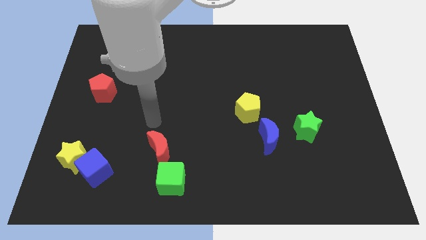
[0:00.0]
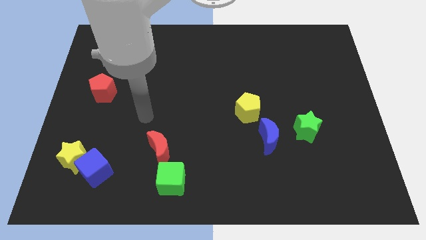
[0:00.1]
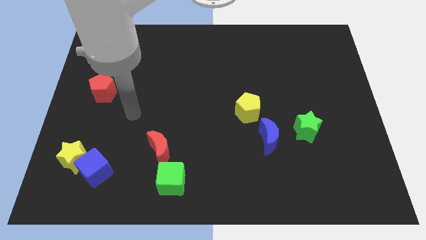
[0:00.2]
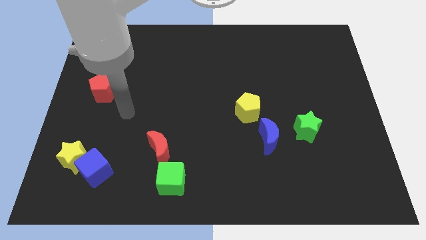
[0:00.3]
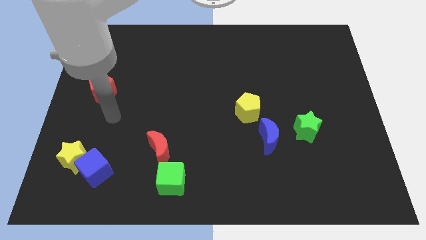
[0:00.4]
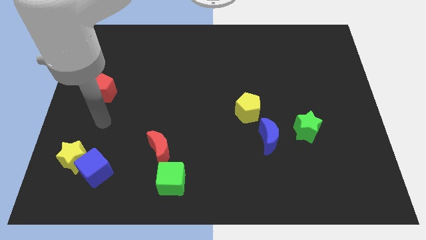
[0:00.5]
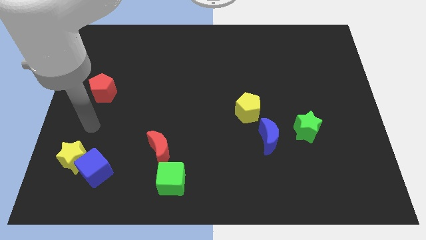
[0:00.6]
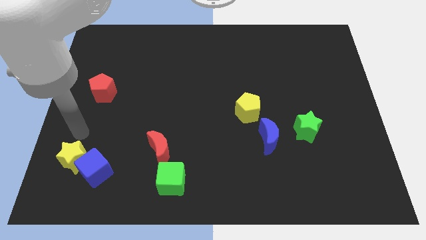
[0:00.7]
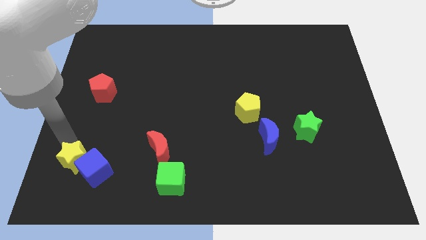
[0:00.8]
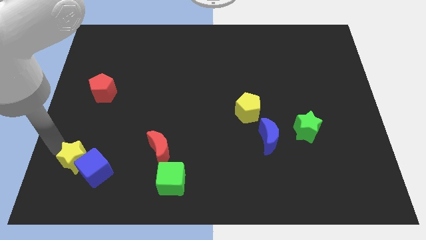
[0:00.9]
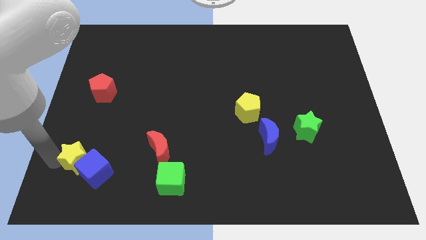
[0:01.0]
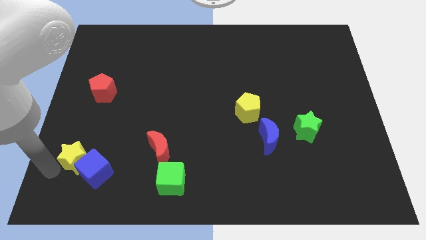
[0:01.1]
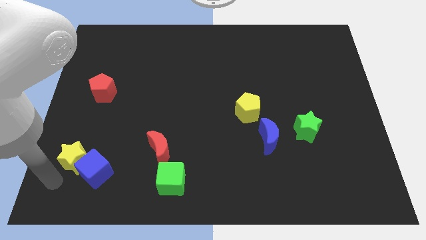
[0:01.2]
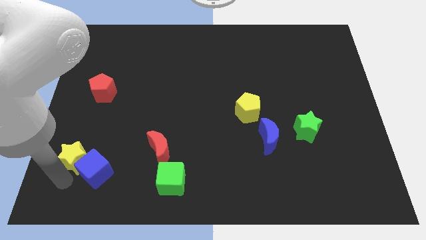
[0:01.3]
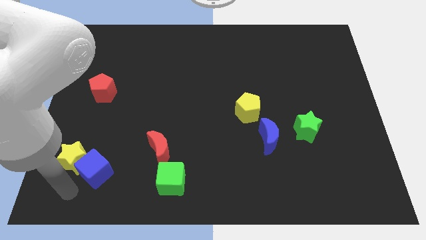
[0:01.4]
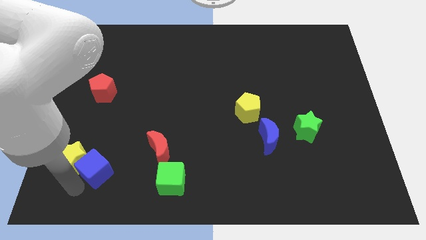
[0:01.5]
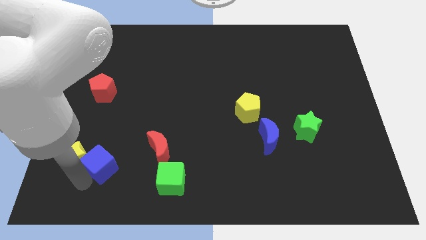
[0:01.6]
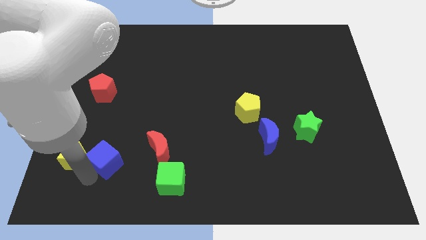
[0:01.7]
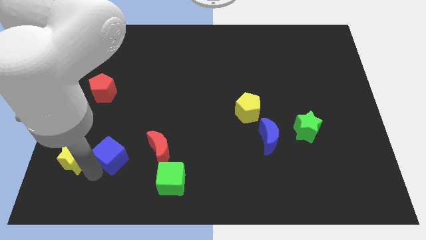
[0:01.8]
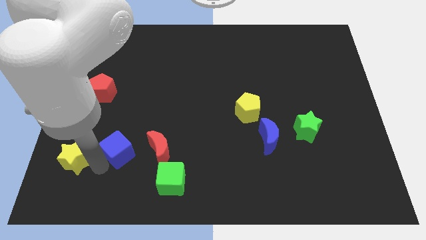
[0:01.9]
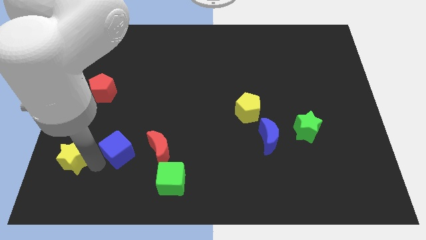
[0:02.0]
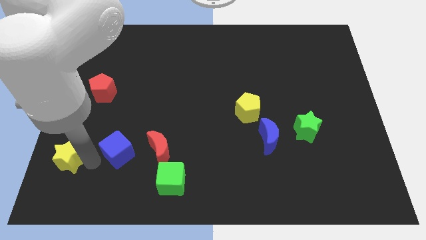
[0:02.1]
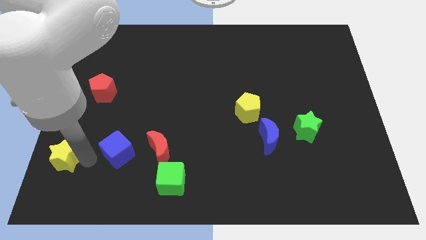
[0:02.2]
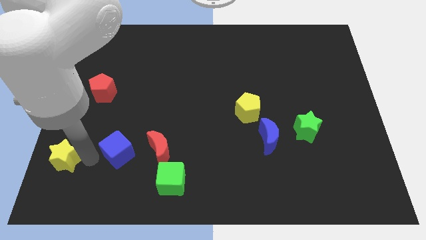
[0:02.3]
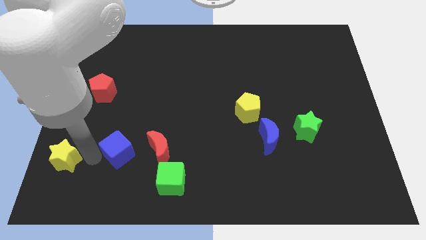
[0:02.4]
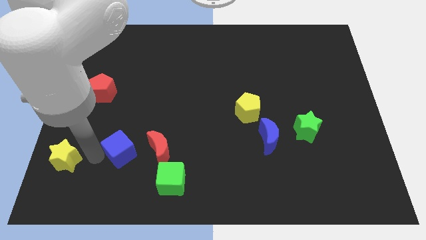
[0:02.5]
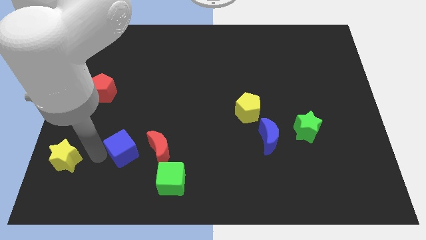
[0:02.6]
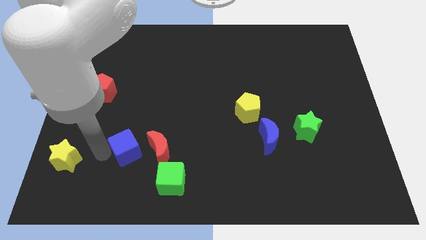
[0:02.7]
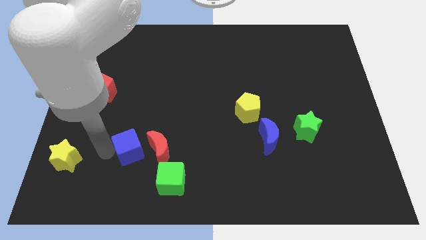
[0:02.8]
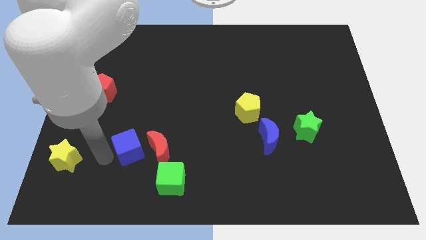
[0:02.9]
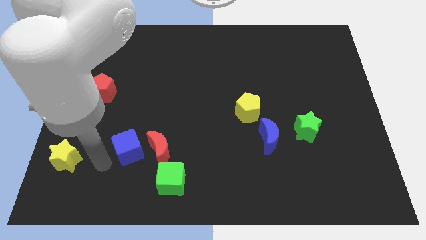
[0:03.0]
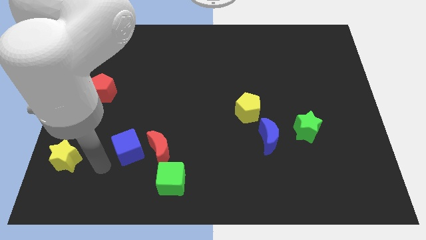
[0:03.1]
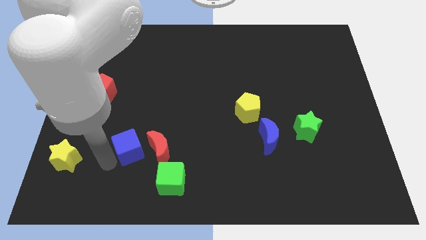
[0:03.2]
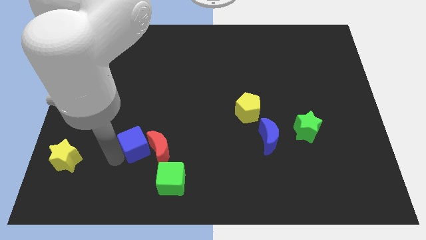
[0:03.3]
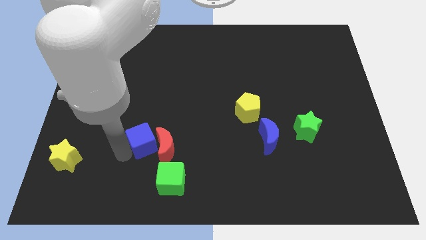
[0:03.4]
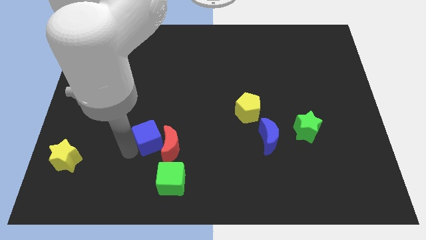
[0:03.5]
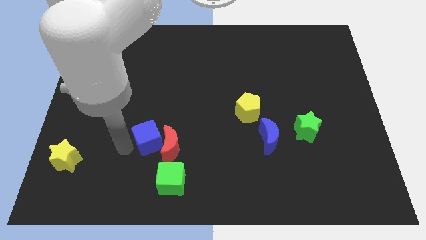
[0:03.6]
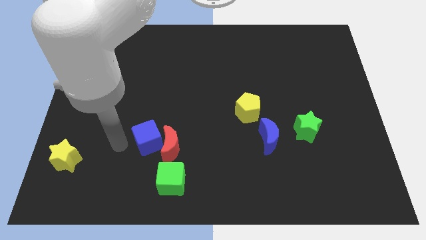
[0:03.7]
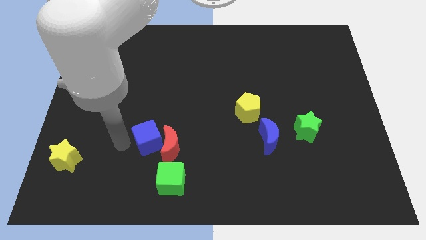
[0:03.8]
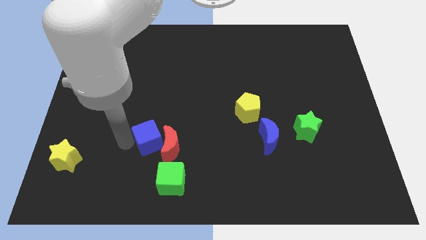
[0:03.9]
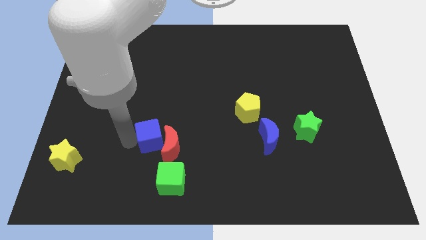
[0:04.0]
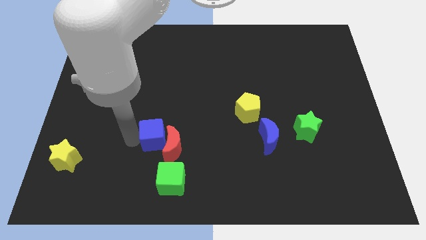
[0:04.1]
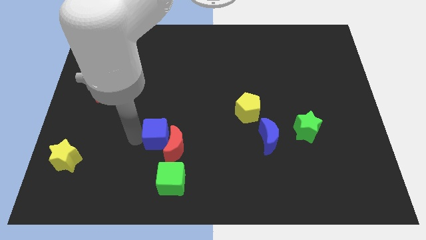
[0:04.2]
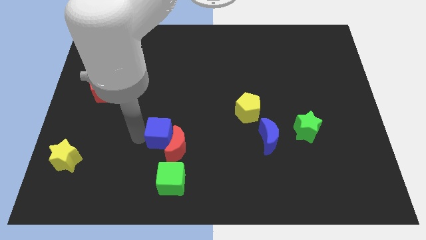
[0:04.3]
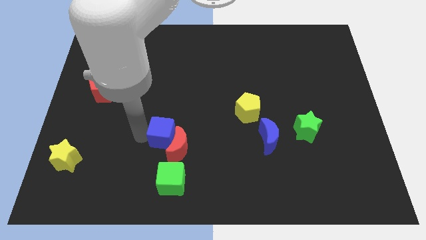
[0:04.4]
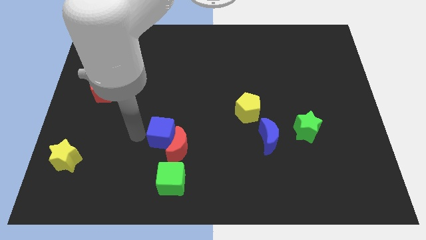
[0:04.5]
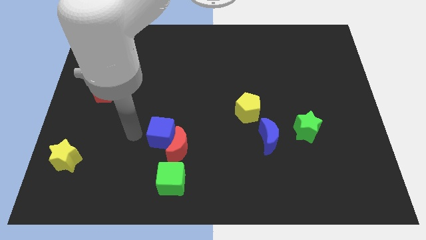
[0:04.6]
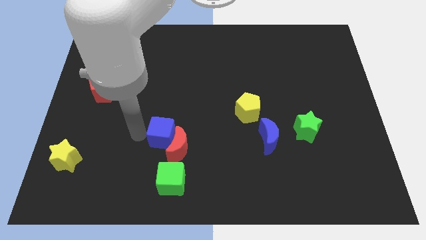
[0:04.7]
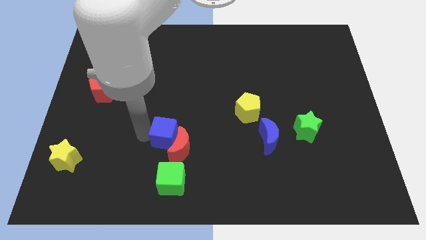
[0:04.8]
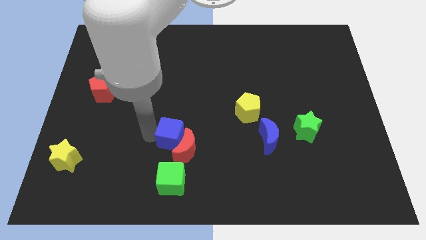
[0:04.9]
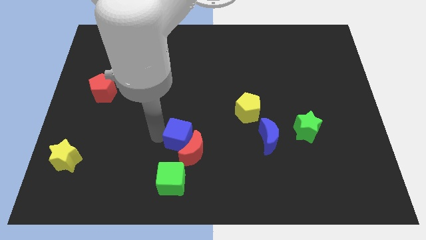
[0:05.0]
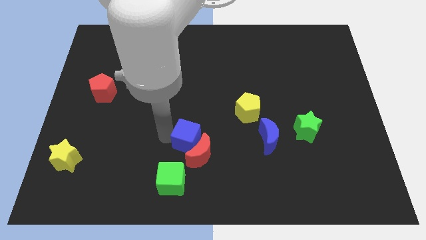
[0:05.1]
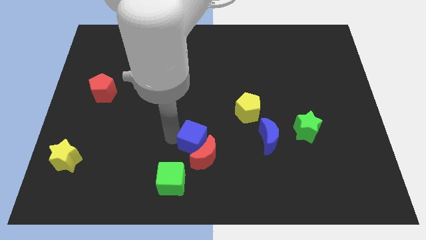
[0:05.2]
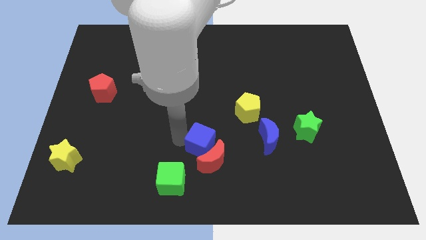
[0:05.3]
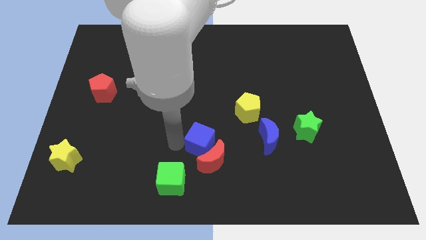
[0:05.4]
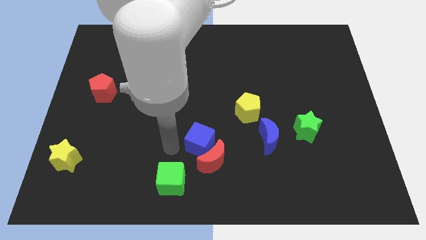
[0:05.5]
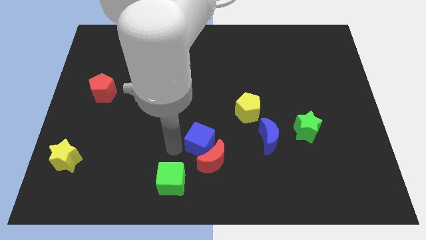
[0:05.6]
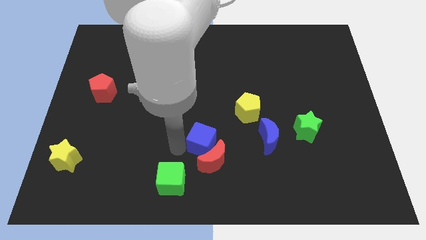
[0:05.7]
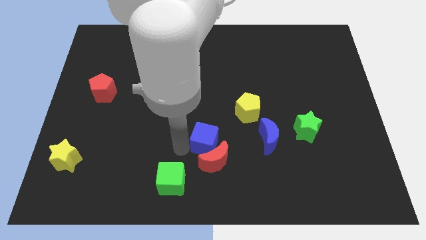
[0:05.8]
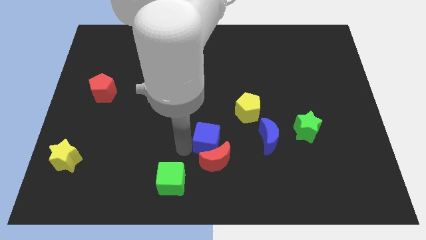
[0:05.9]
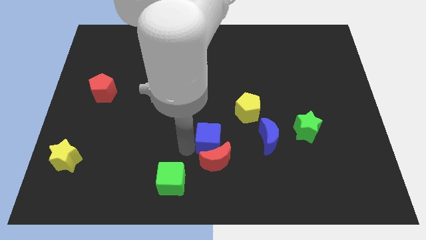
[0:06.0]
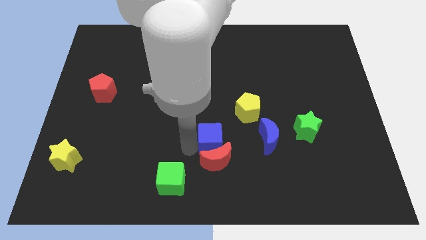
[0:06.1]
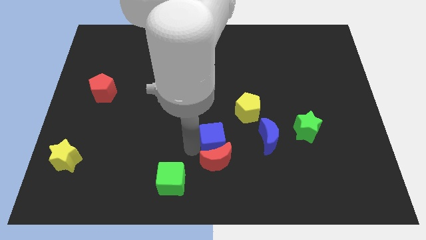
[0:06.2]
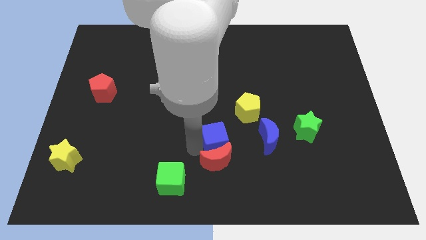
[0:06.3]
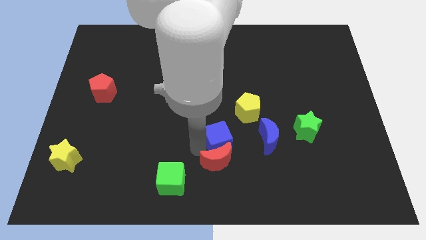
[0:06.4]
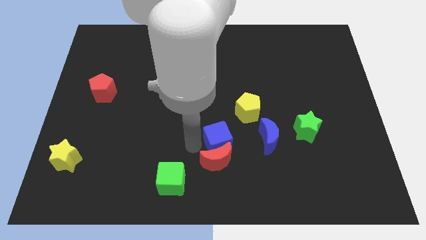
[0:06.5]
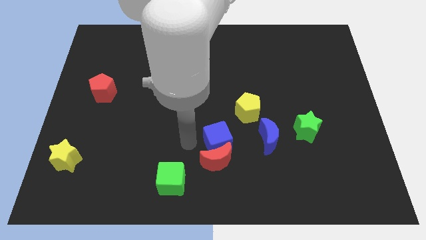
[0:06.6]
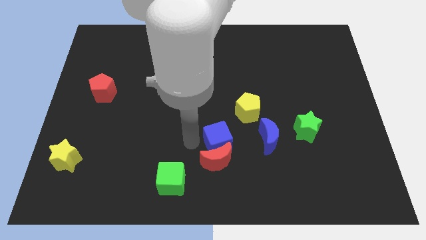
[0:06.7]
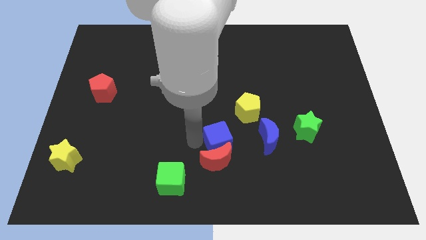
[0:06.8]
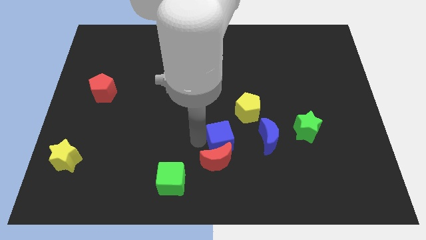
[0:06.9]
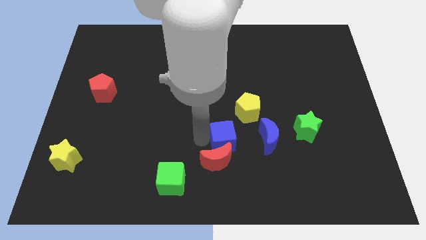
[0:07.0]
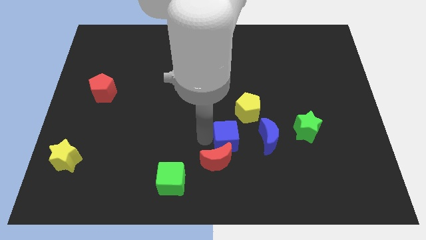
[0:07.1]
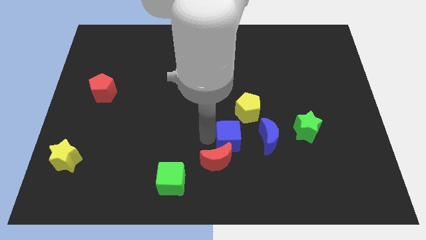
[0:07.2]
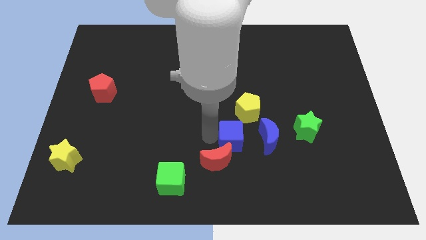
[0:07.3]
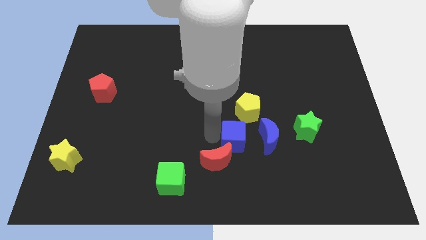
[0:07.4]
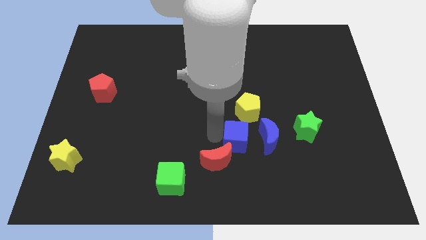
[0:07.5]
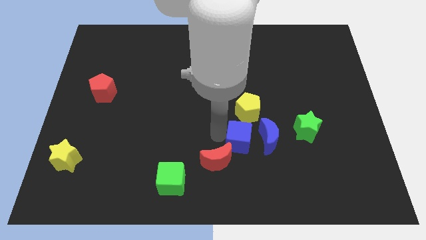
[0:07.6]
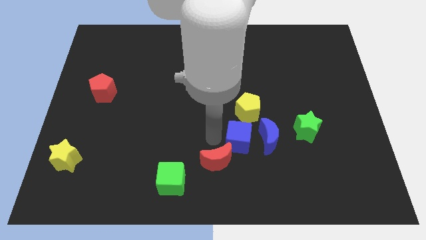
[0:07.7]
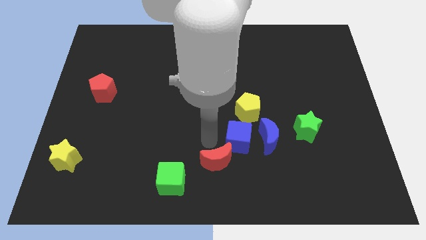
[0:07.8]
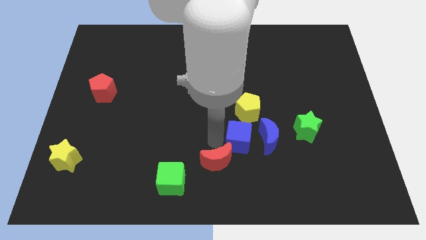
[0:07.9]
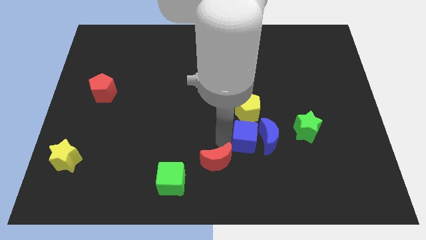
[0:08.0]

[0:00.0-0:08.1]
move the blue cube to the blue moon
